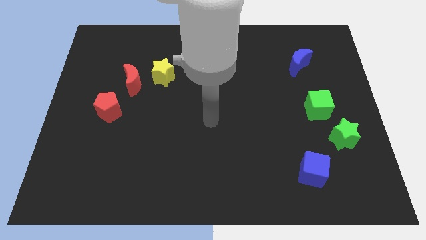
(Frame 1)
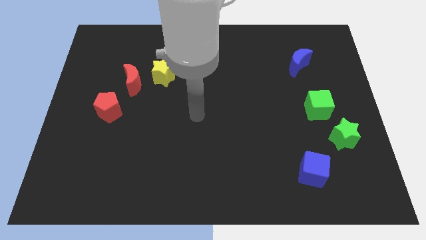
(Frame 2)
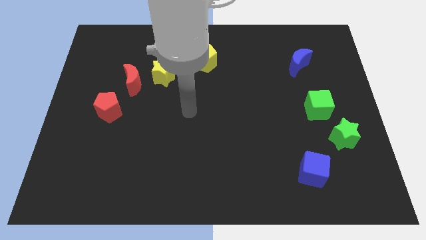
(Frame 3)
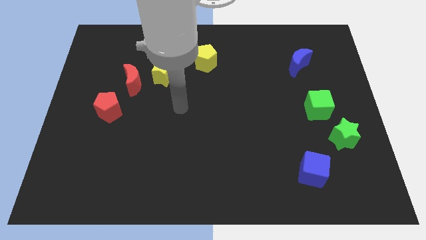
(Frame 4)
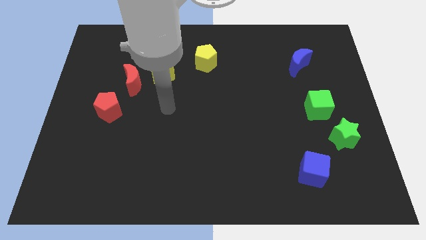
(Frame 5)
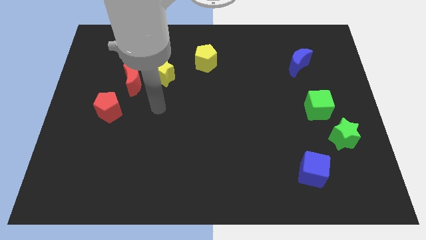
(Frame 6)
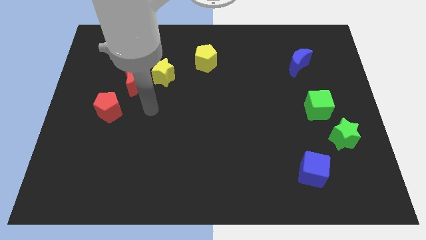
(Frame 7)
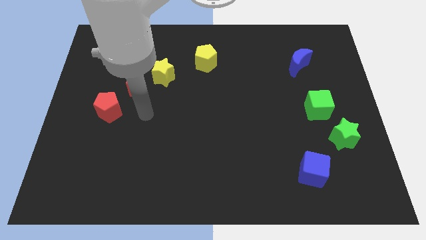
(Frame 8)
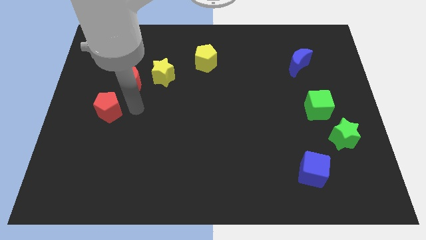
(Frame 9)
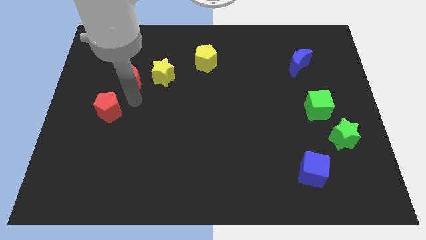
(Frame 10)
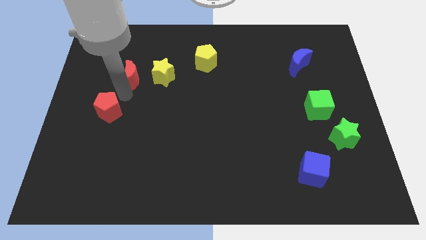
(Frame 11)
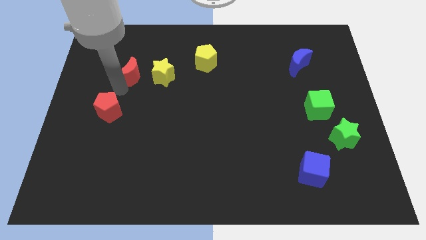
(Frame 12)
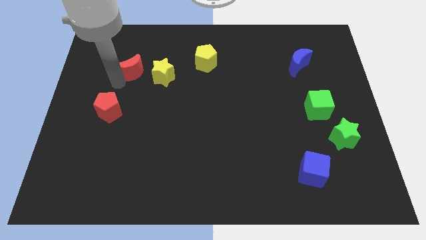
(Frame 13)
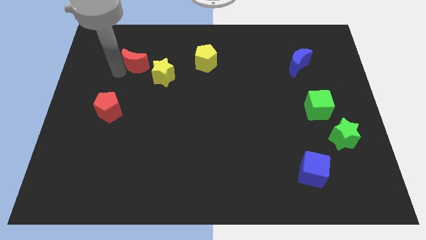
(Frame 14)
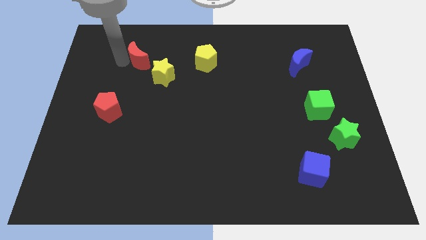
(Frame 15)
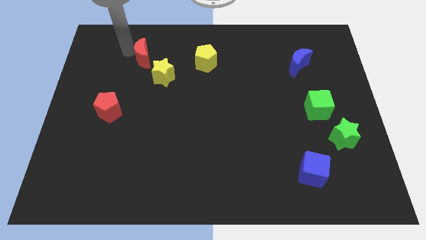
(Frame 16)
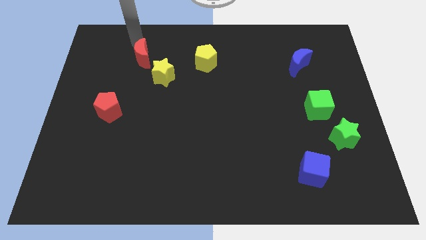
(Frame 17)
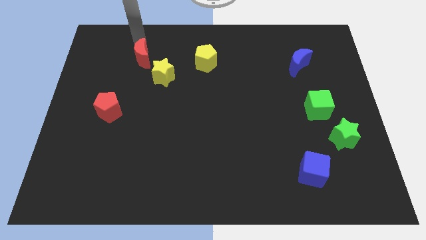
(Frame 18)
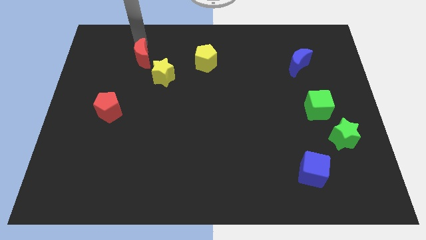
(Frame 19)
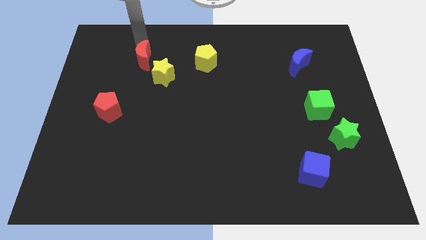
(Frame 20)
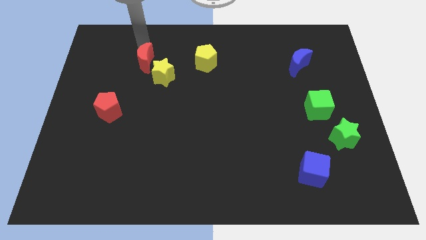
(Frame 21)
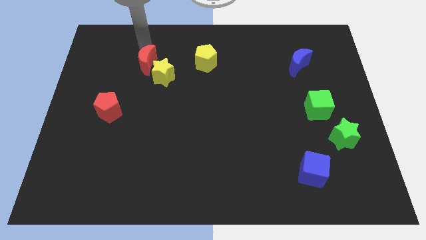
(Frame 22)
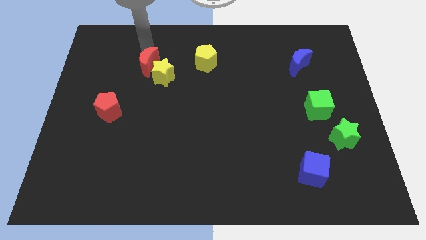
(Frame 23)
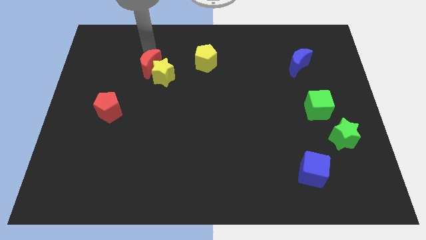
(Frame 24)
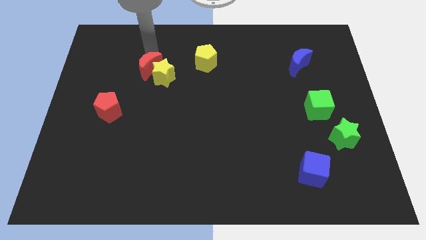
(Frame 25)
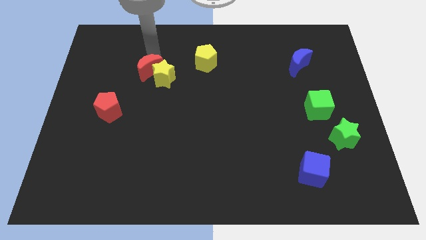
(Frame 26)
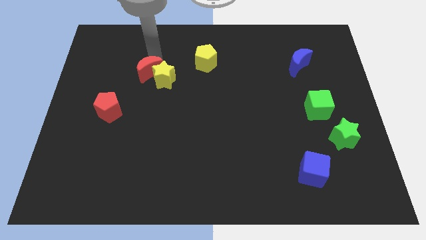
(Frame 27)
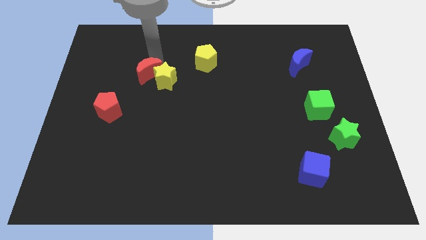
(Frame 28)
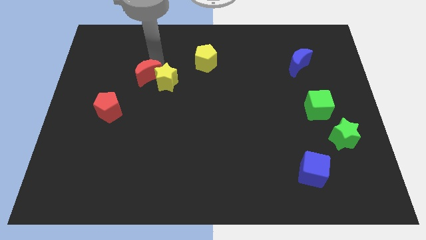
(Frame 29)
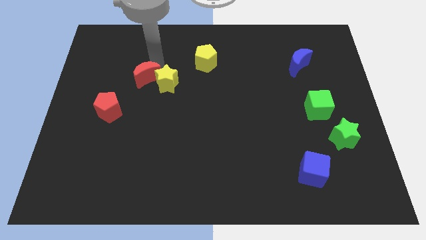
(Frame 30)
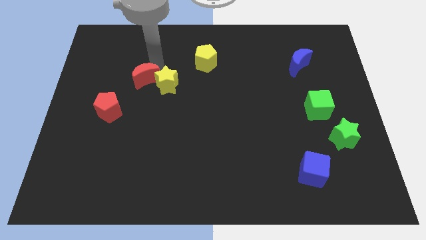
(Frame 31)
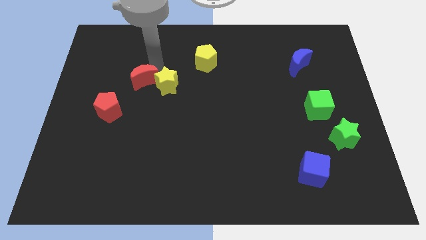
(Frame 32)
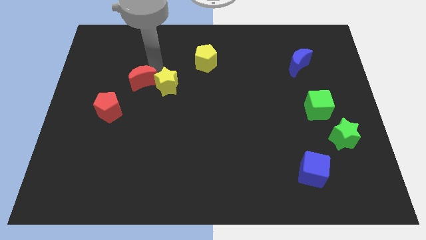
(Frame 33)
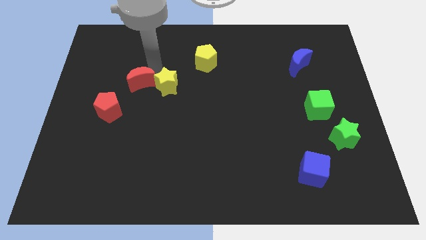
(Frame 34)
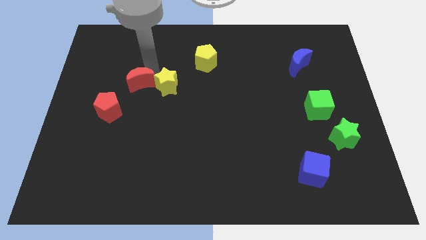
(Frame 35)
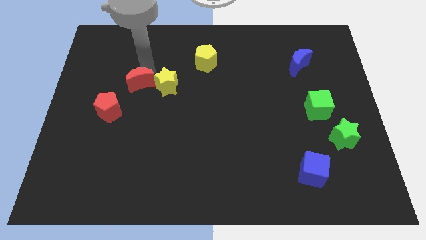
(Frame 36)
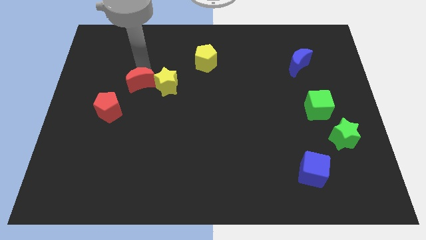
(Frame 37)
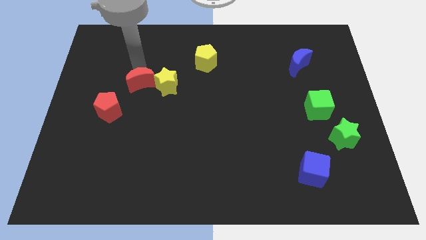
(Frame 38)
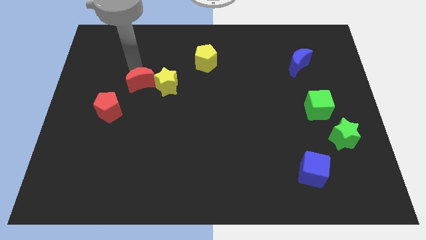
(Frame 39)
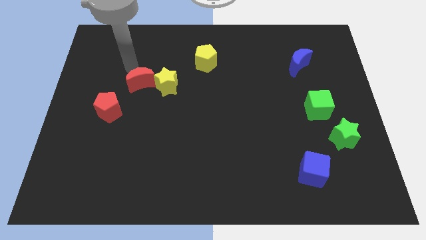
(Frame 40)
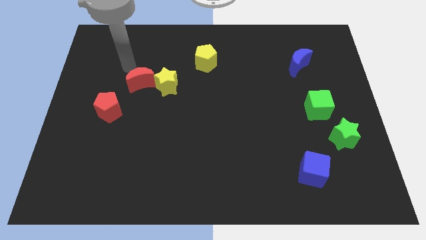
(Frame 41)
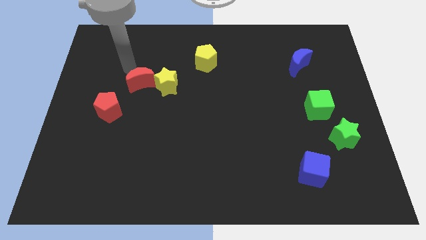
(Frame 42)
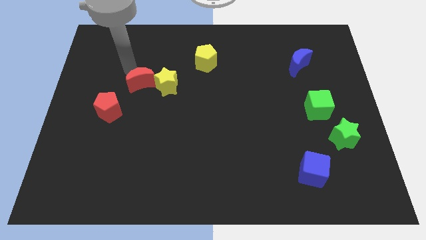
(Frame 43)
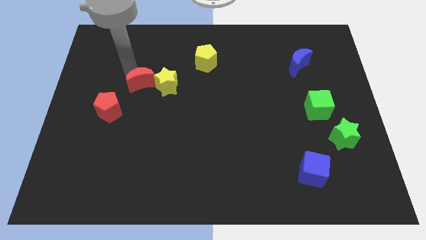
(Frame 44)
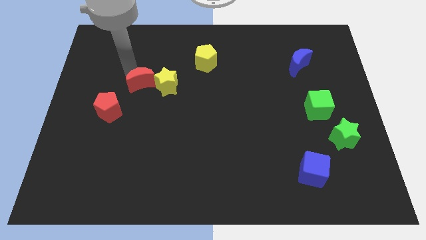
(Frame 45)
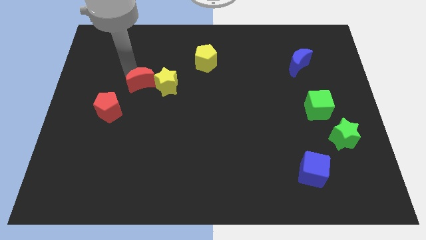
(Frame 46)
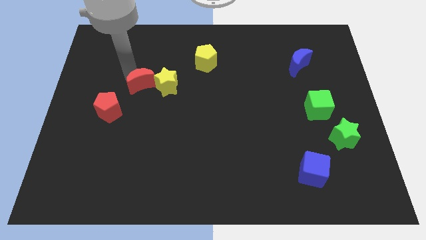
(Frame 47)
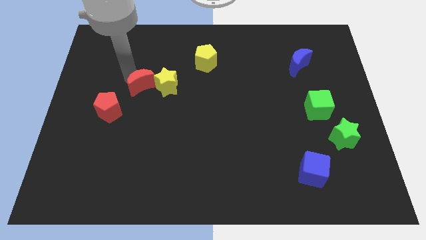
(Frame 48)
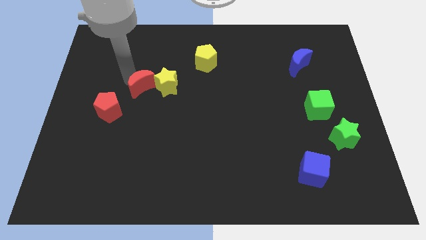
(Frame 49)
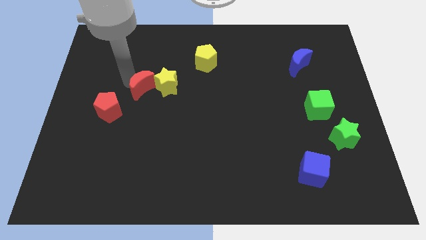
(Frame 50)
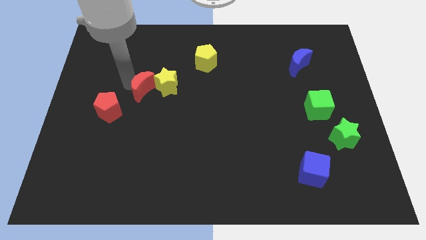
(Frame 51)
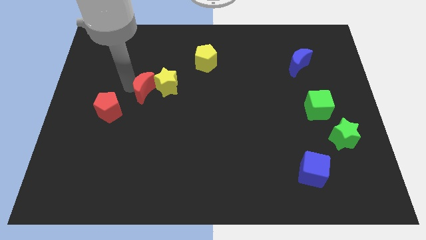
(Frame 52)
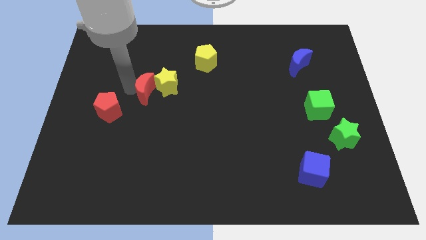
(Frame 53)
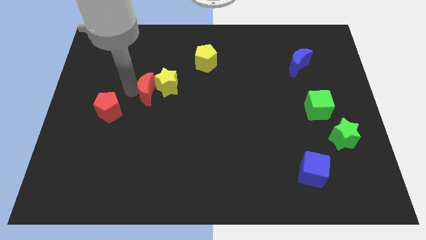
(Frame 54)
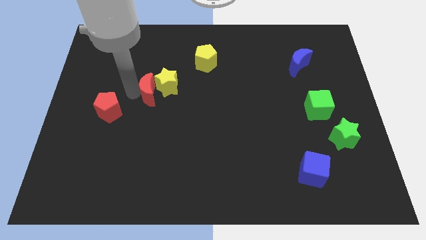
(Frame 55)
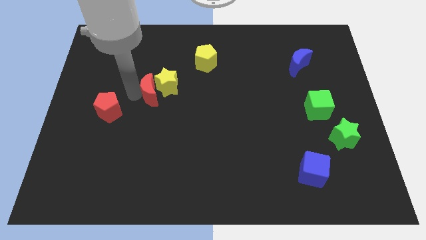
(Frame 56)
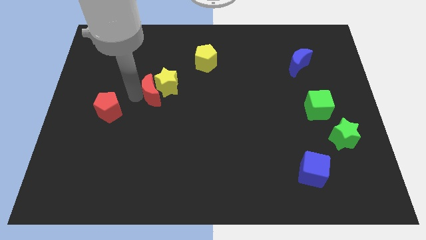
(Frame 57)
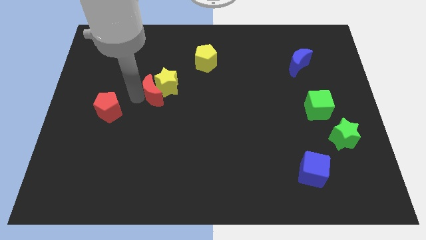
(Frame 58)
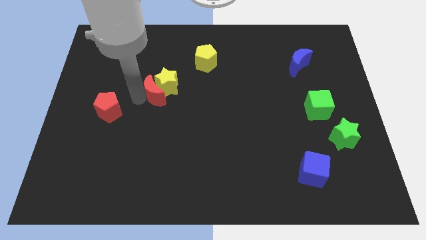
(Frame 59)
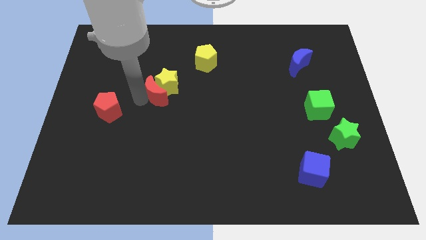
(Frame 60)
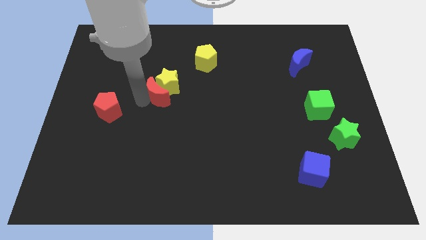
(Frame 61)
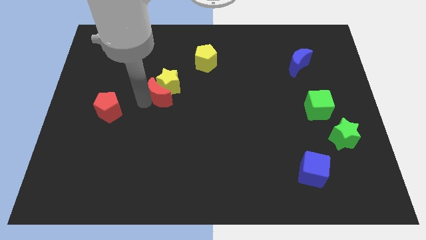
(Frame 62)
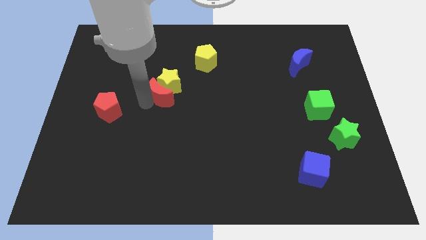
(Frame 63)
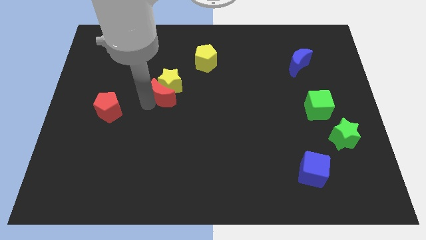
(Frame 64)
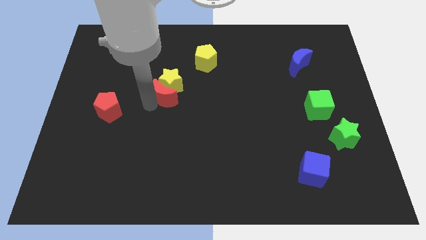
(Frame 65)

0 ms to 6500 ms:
move the red moon a bit right

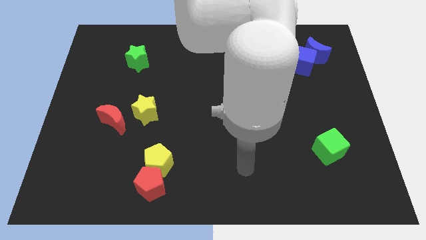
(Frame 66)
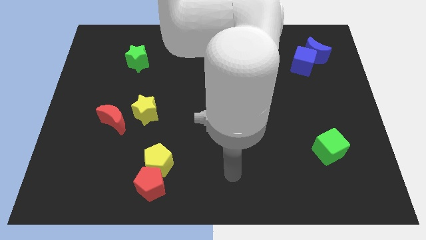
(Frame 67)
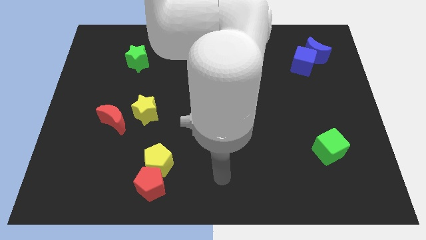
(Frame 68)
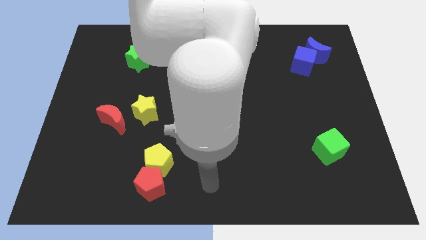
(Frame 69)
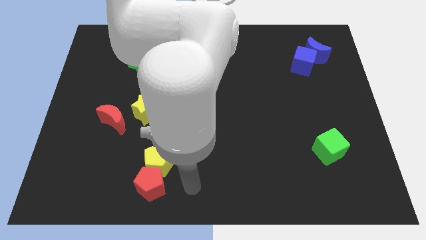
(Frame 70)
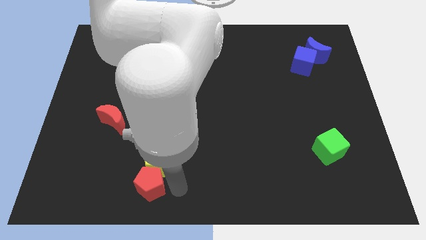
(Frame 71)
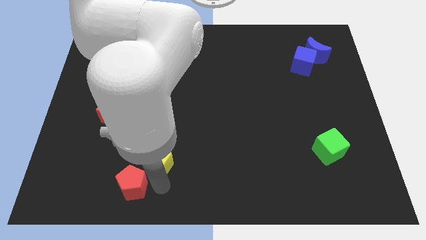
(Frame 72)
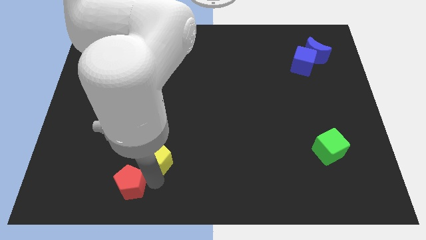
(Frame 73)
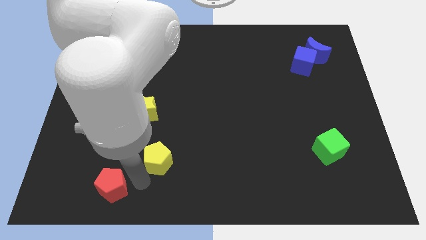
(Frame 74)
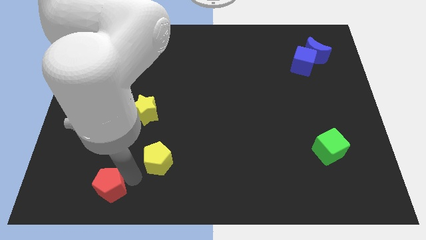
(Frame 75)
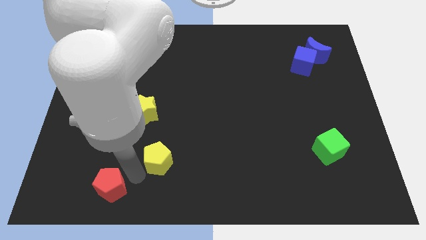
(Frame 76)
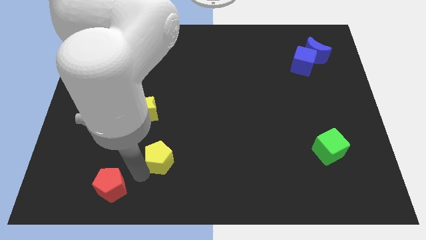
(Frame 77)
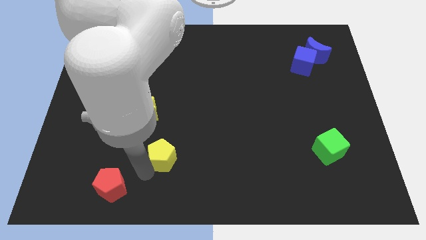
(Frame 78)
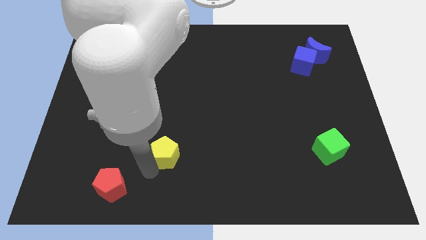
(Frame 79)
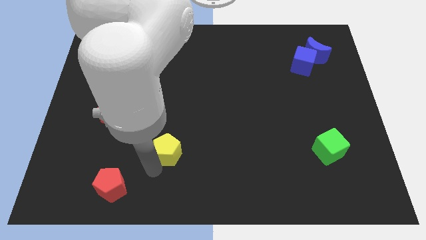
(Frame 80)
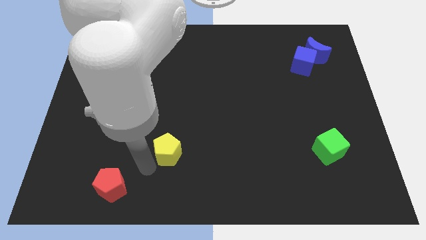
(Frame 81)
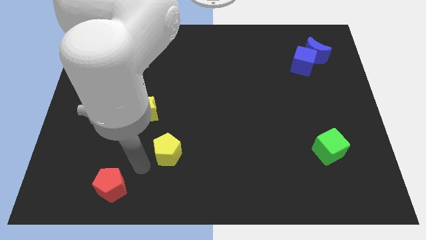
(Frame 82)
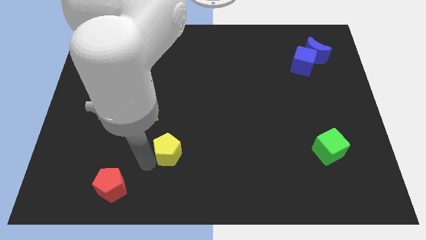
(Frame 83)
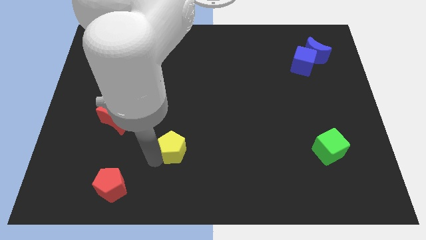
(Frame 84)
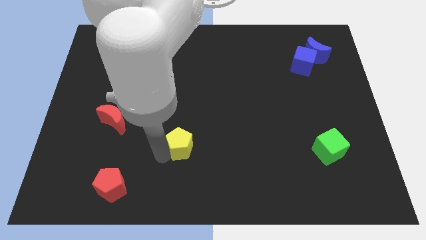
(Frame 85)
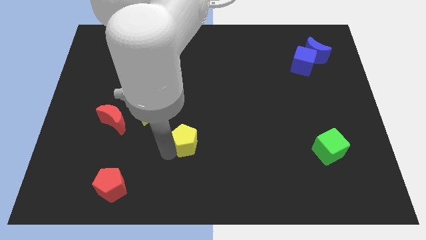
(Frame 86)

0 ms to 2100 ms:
move the yellow pentagon a little upwards and right diagonally
